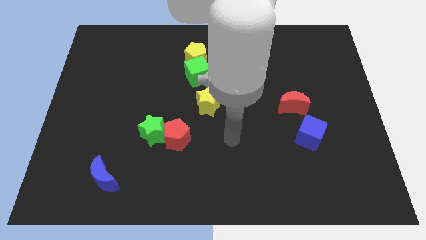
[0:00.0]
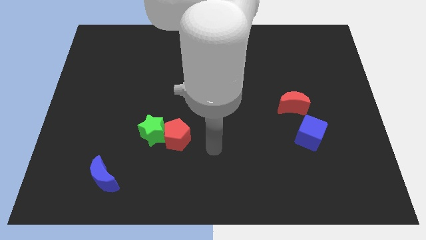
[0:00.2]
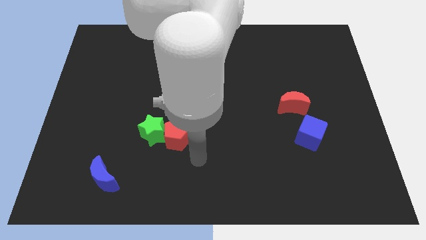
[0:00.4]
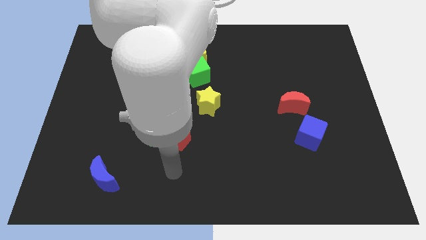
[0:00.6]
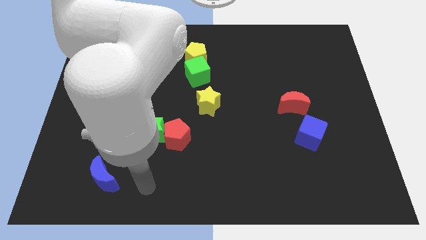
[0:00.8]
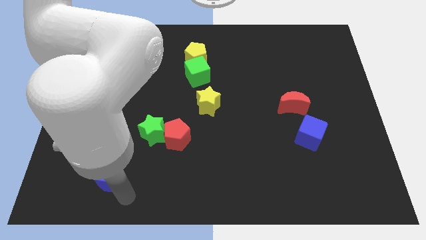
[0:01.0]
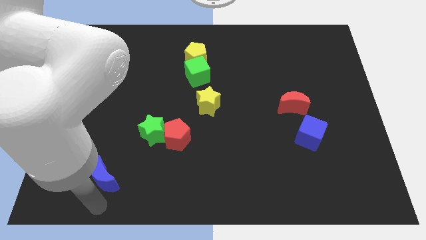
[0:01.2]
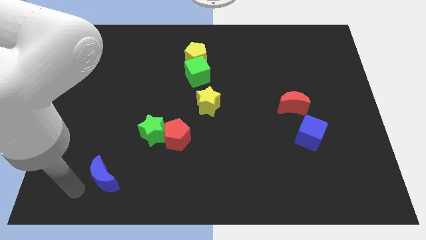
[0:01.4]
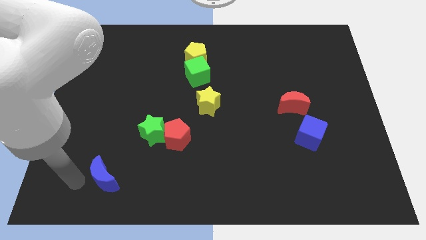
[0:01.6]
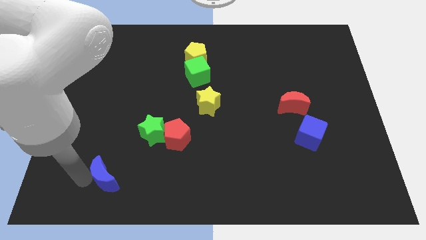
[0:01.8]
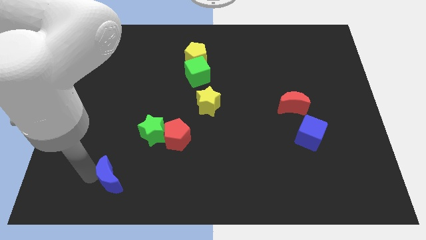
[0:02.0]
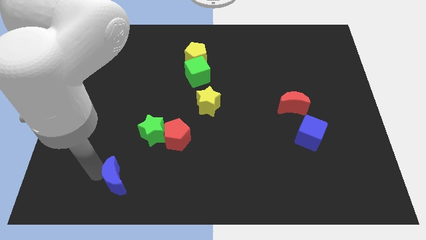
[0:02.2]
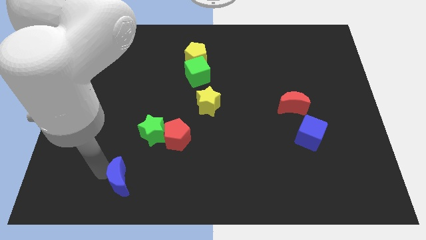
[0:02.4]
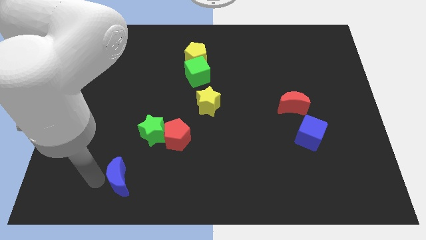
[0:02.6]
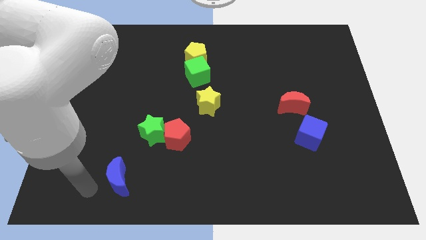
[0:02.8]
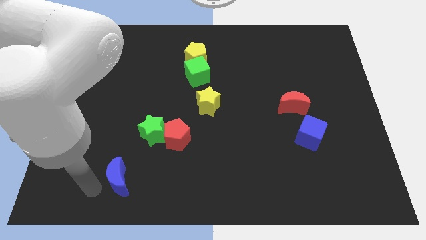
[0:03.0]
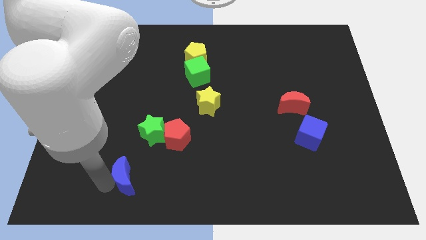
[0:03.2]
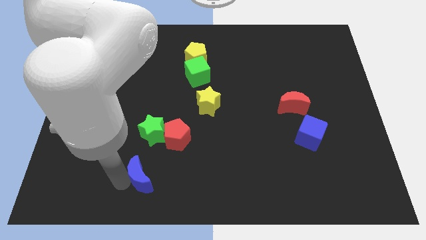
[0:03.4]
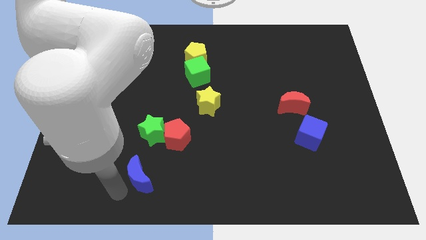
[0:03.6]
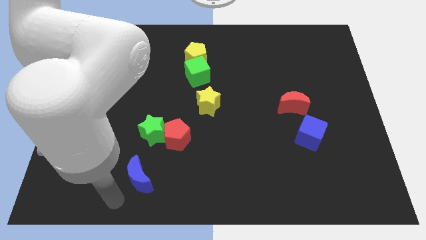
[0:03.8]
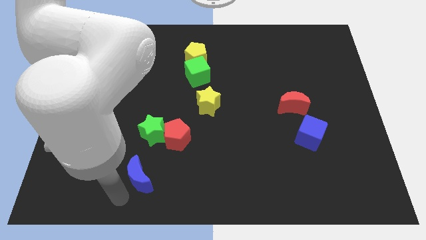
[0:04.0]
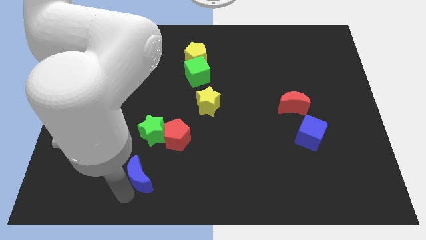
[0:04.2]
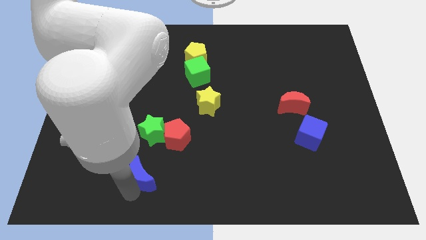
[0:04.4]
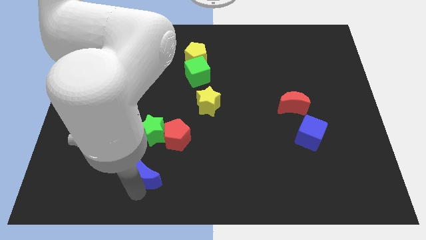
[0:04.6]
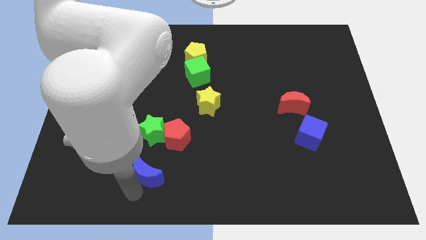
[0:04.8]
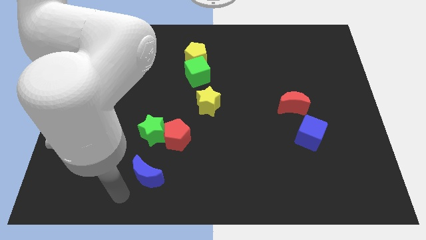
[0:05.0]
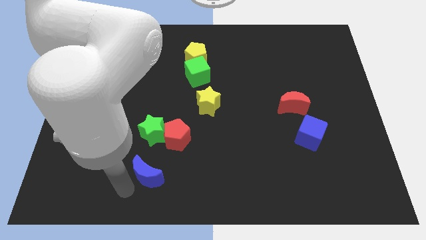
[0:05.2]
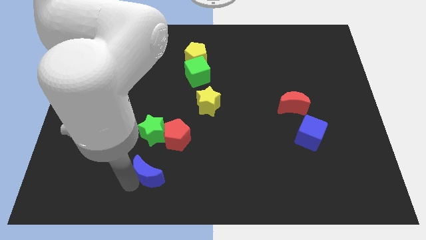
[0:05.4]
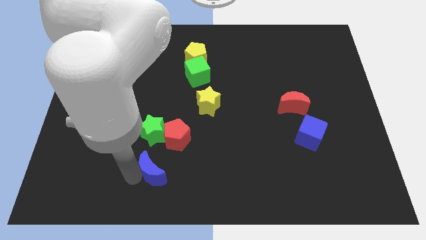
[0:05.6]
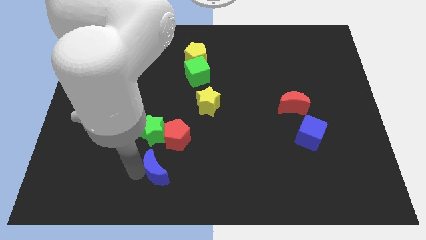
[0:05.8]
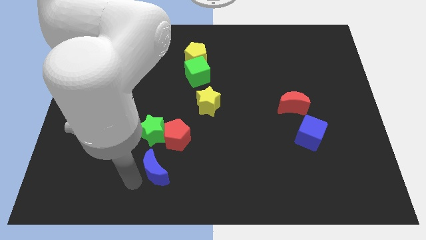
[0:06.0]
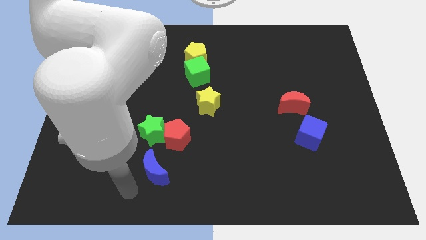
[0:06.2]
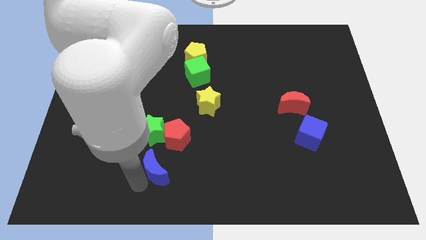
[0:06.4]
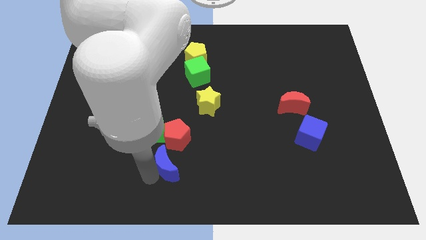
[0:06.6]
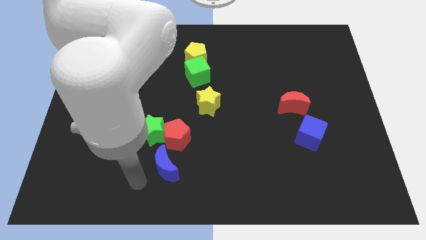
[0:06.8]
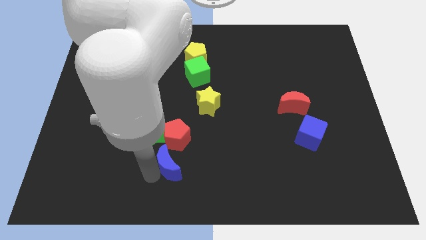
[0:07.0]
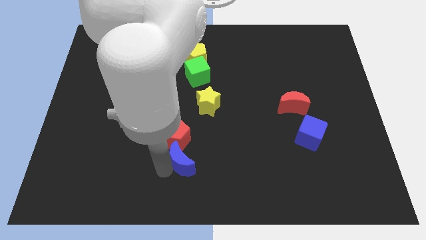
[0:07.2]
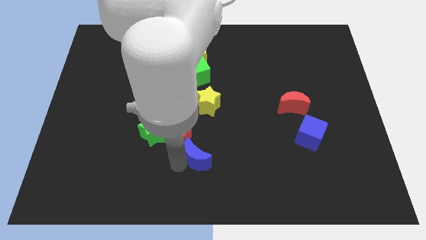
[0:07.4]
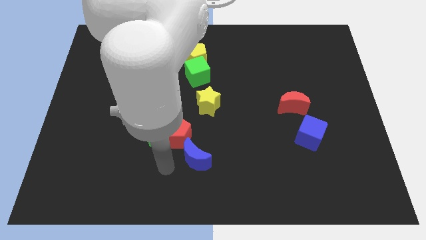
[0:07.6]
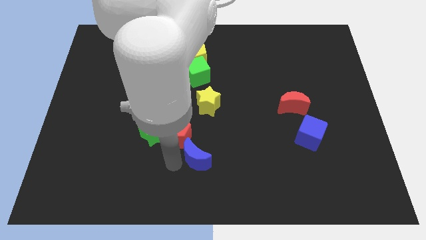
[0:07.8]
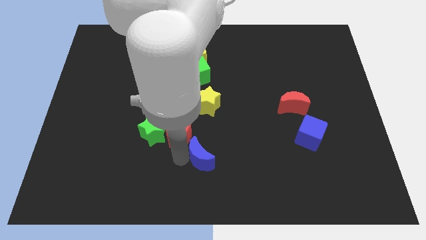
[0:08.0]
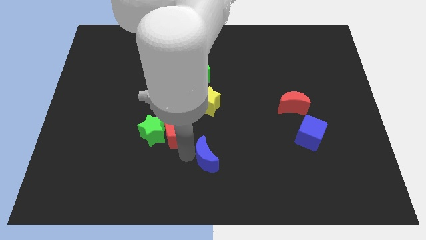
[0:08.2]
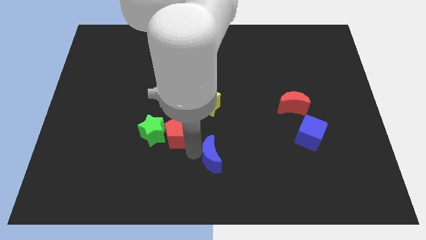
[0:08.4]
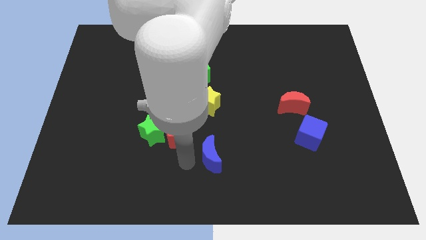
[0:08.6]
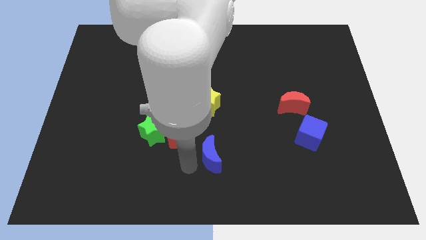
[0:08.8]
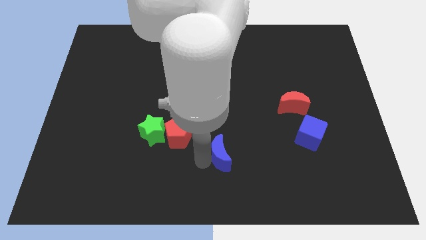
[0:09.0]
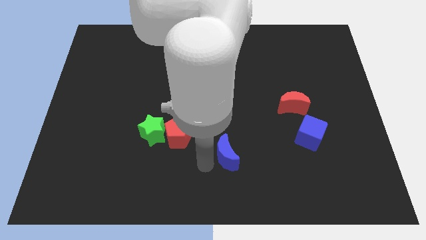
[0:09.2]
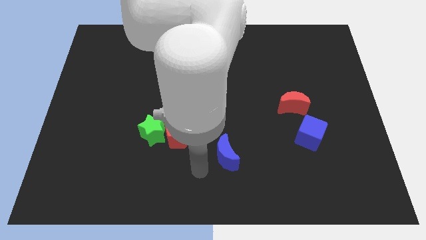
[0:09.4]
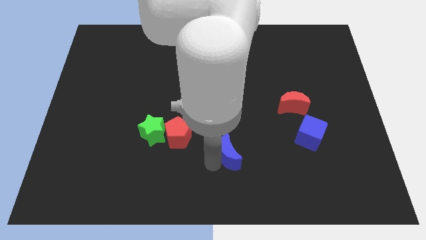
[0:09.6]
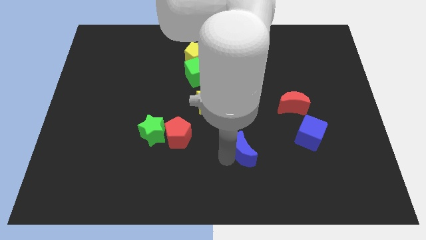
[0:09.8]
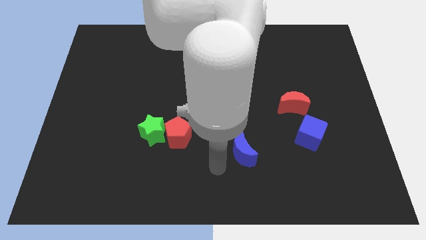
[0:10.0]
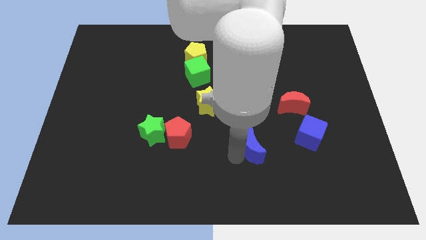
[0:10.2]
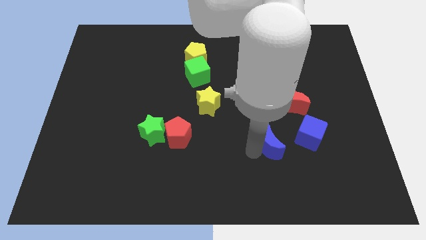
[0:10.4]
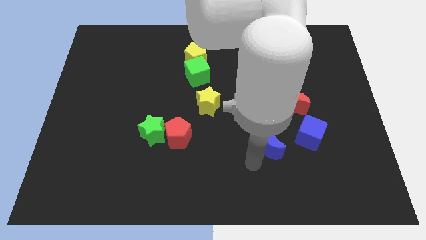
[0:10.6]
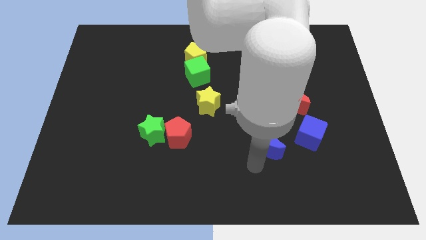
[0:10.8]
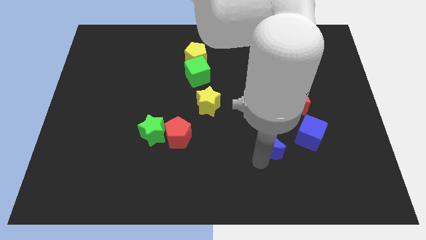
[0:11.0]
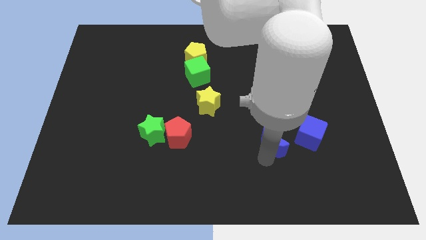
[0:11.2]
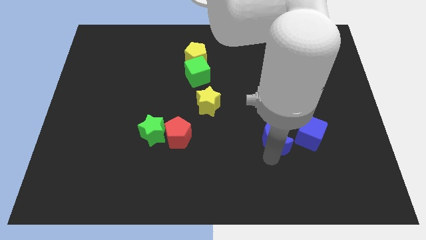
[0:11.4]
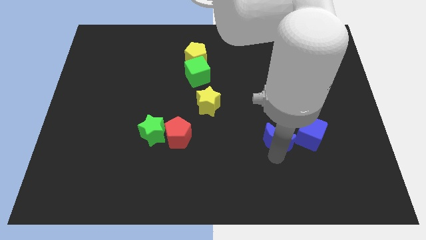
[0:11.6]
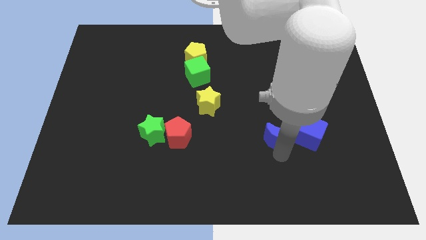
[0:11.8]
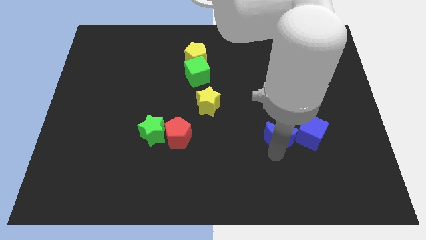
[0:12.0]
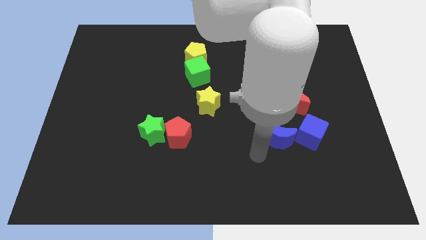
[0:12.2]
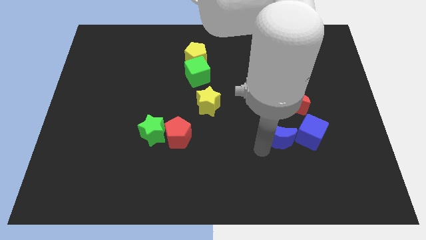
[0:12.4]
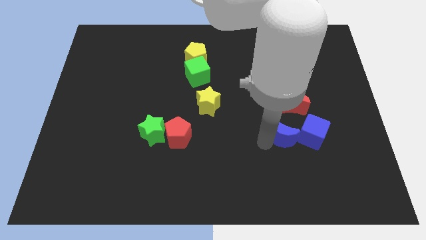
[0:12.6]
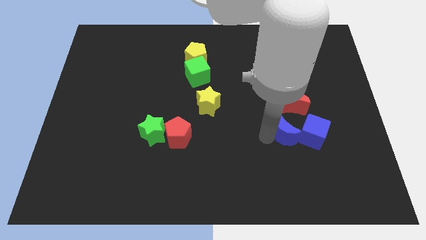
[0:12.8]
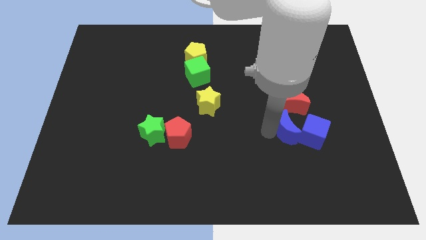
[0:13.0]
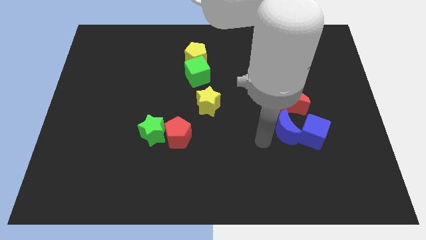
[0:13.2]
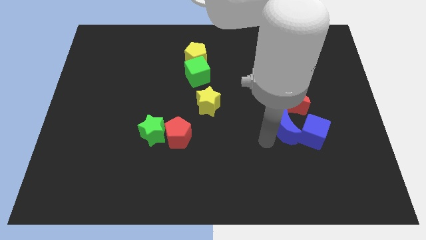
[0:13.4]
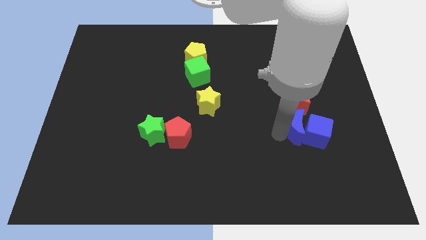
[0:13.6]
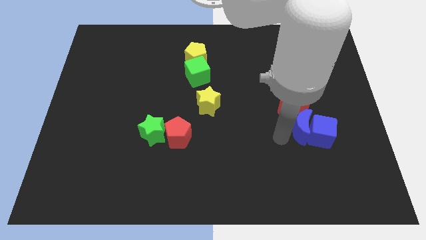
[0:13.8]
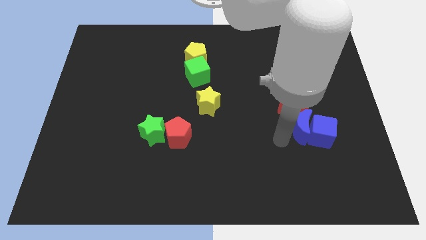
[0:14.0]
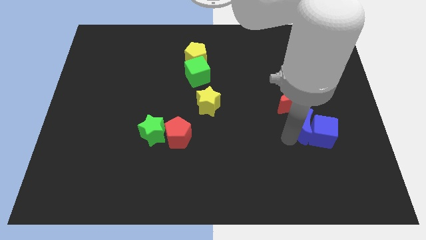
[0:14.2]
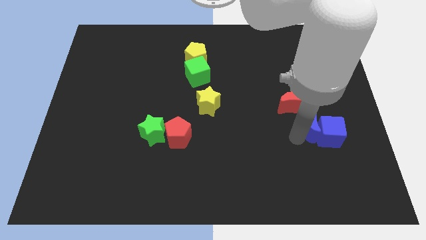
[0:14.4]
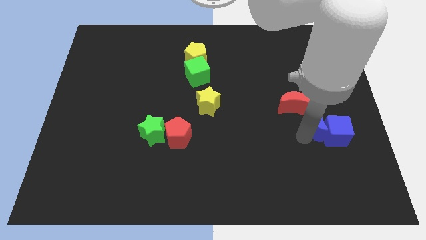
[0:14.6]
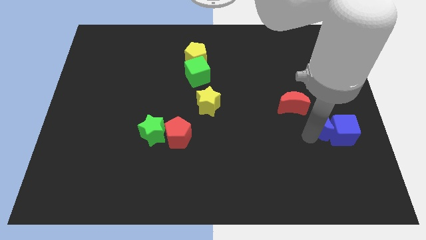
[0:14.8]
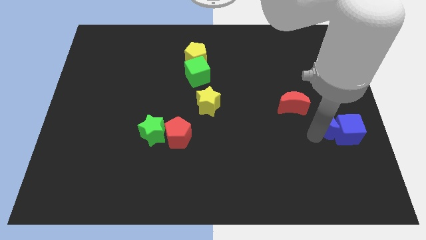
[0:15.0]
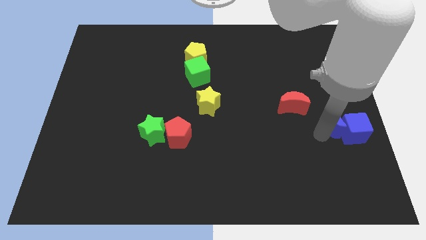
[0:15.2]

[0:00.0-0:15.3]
move the blue moon to the right side

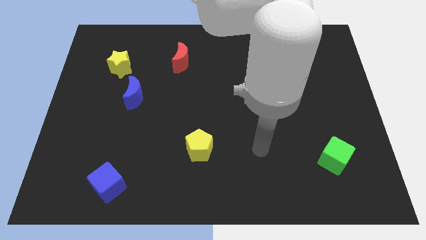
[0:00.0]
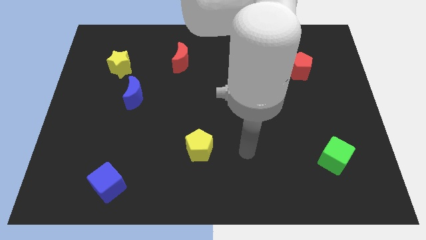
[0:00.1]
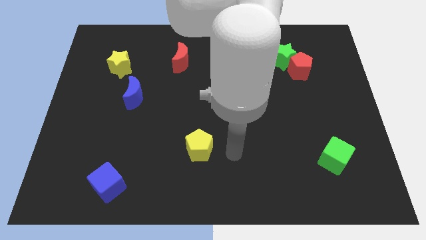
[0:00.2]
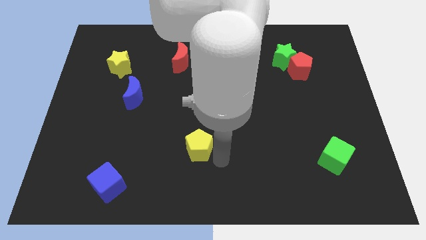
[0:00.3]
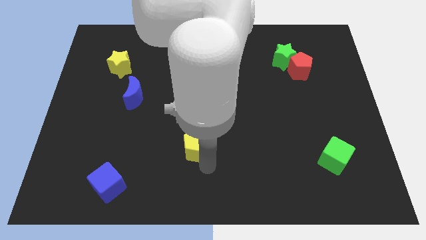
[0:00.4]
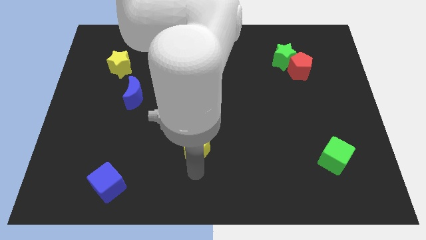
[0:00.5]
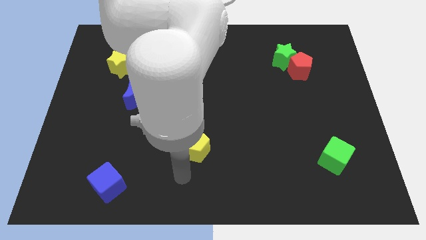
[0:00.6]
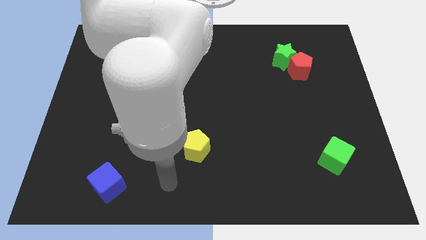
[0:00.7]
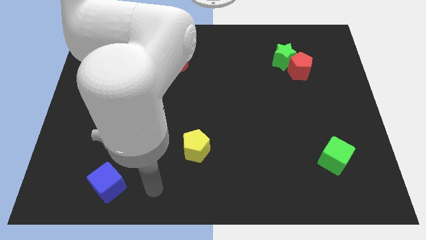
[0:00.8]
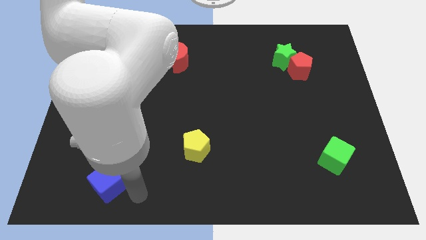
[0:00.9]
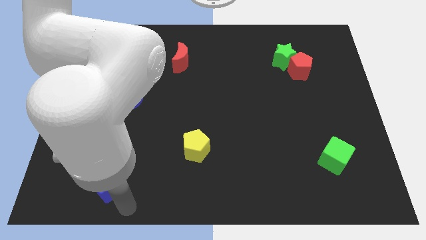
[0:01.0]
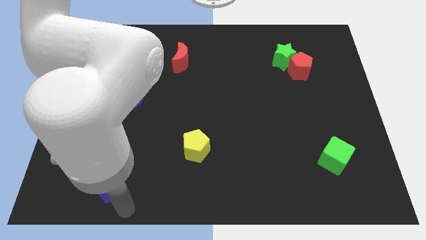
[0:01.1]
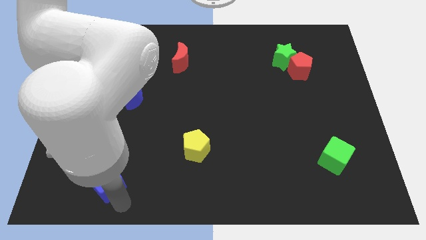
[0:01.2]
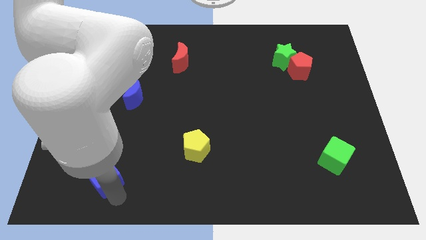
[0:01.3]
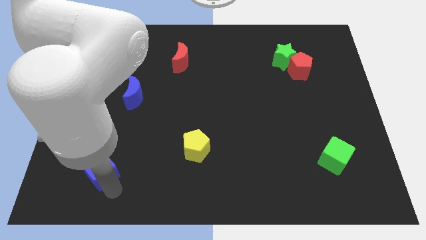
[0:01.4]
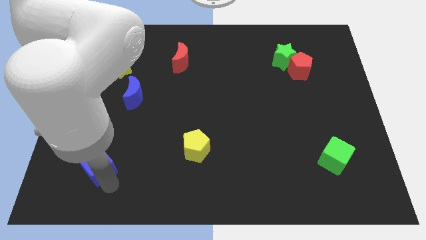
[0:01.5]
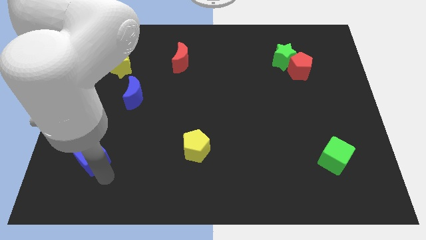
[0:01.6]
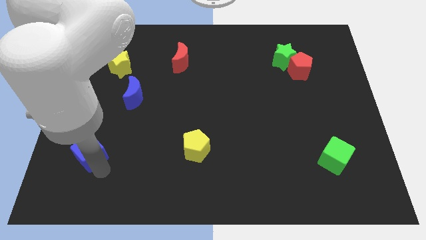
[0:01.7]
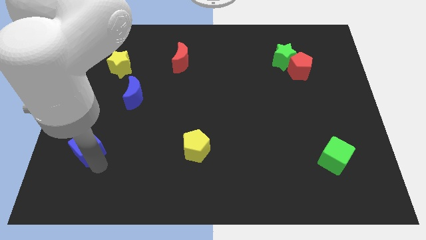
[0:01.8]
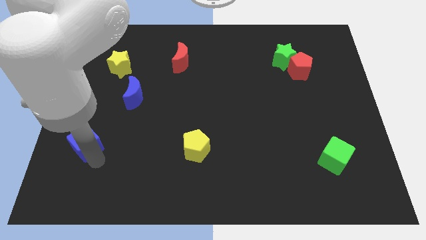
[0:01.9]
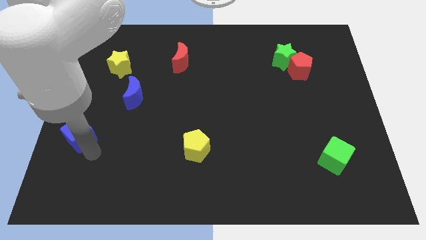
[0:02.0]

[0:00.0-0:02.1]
move the blue cube to the left side of the board
